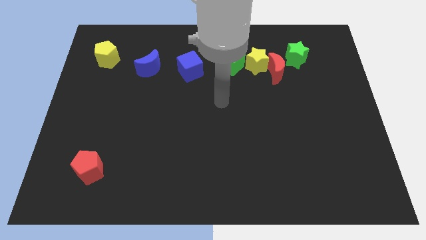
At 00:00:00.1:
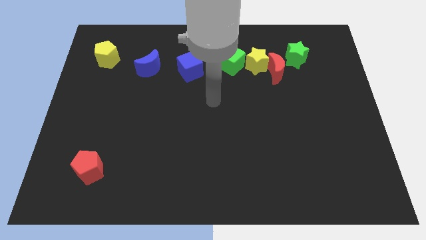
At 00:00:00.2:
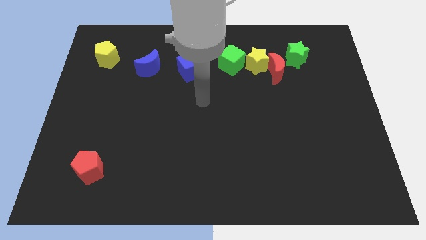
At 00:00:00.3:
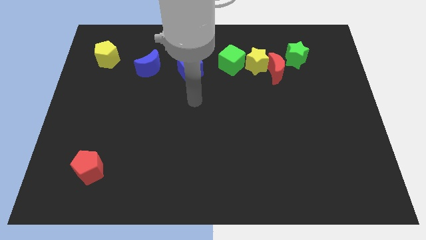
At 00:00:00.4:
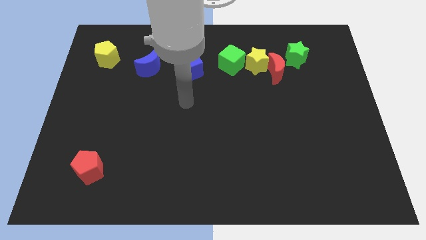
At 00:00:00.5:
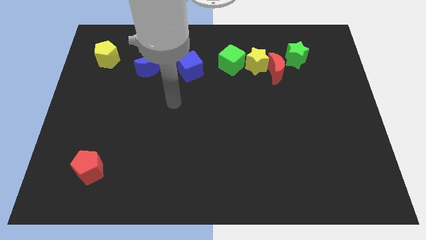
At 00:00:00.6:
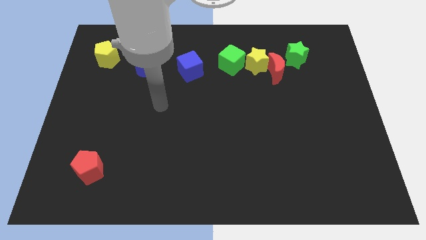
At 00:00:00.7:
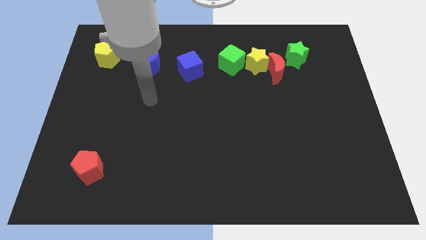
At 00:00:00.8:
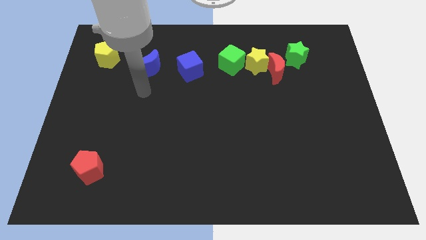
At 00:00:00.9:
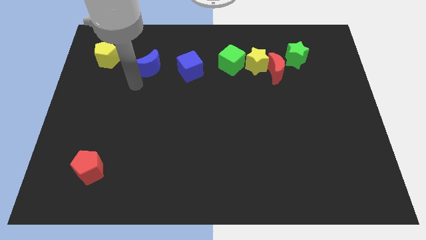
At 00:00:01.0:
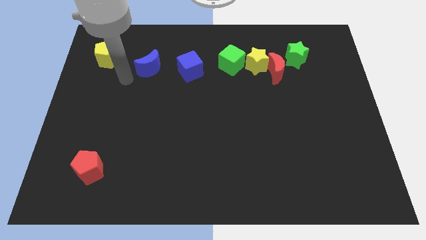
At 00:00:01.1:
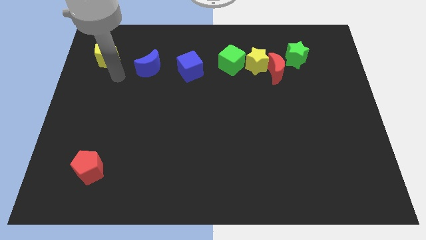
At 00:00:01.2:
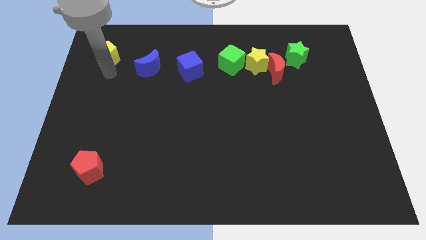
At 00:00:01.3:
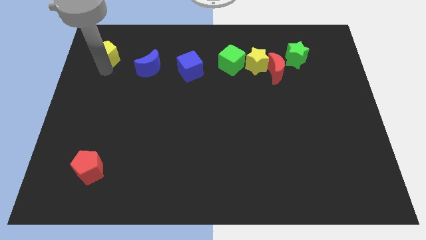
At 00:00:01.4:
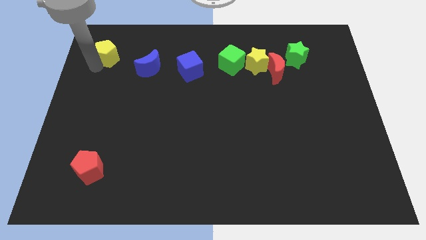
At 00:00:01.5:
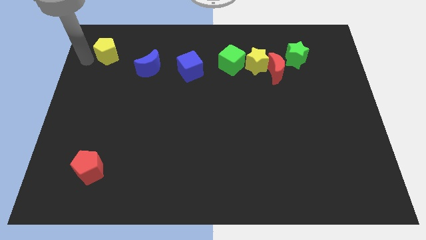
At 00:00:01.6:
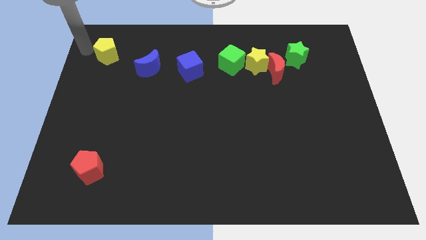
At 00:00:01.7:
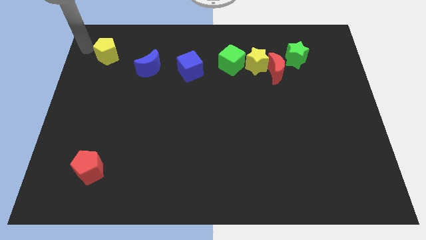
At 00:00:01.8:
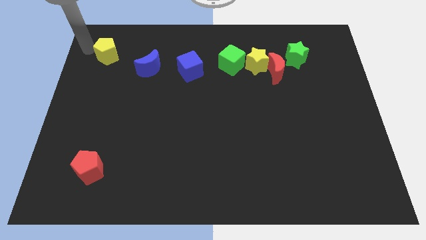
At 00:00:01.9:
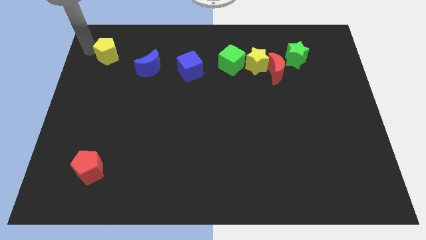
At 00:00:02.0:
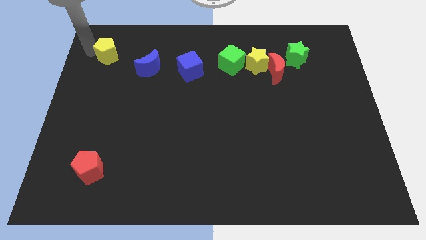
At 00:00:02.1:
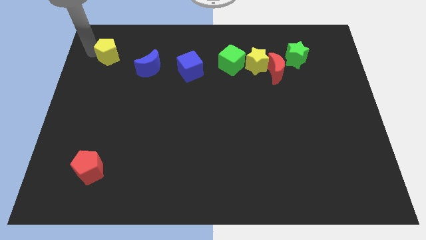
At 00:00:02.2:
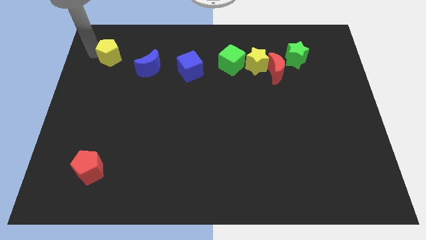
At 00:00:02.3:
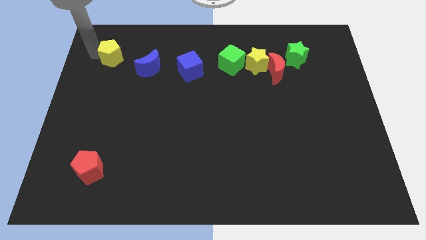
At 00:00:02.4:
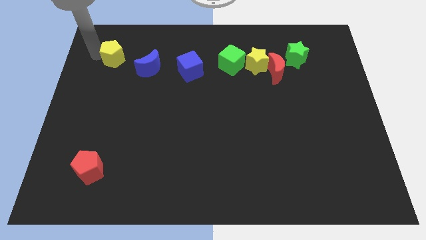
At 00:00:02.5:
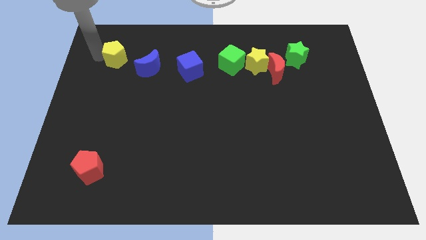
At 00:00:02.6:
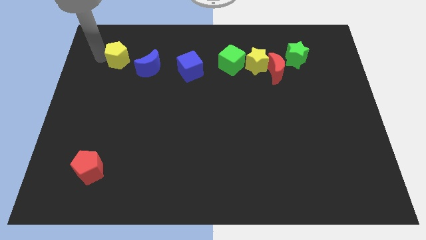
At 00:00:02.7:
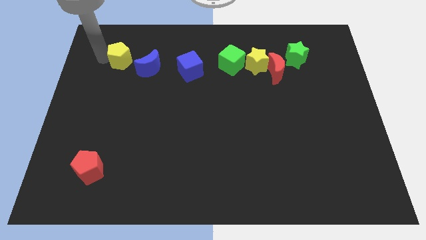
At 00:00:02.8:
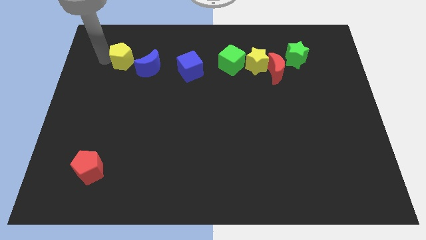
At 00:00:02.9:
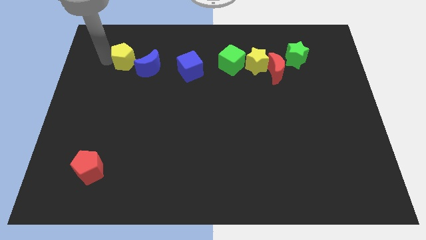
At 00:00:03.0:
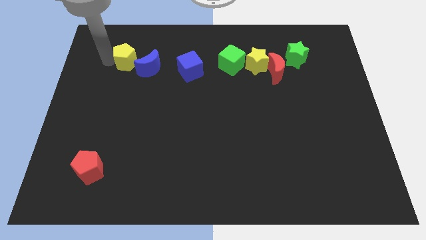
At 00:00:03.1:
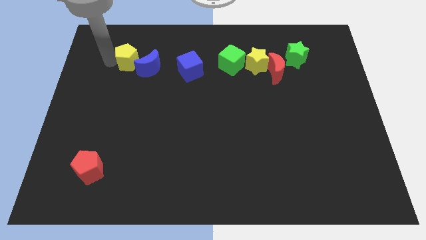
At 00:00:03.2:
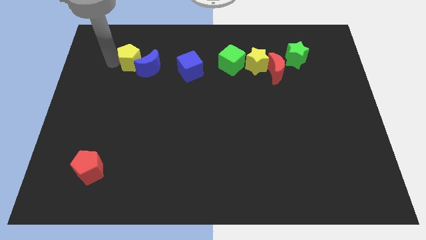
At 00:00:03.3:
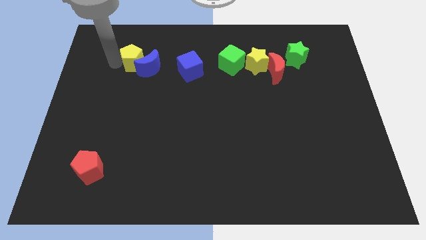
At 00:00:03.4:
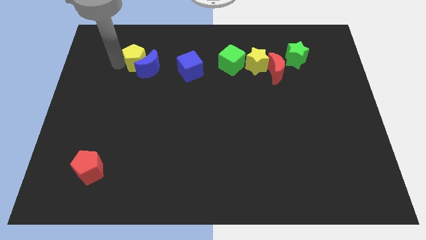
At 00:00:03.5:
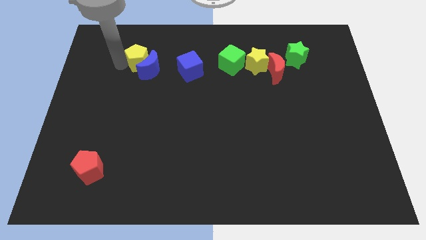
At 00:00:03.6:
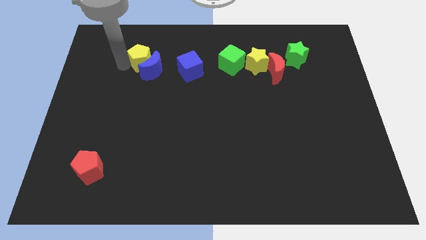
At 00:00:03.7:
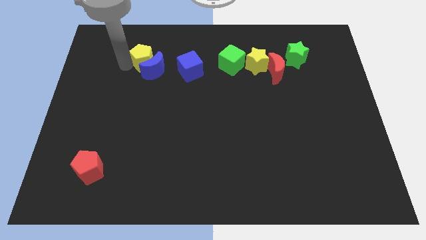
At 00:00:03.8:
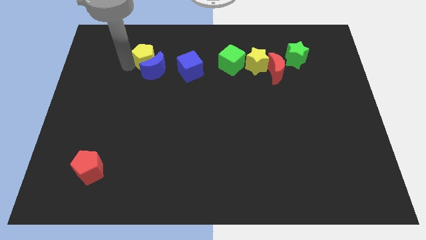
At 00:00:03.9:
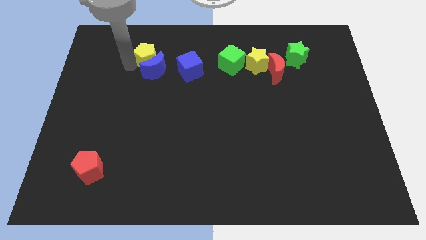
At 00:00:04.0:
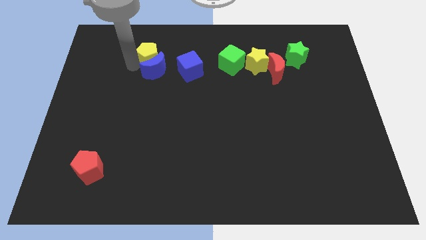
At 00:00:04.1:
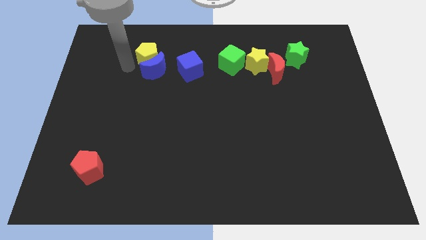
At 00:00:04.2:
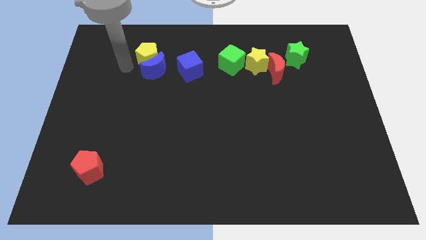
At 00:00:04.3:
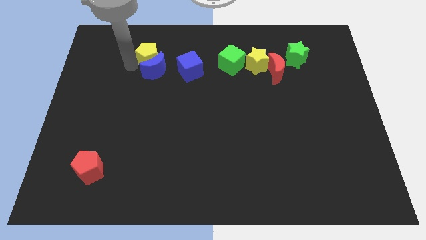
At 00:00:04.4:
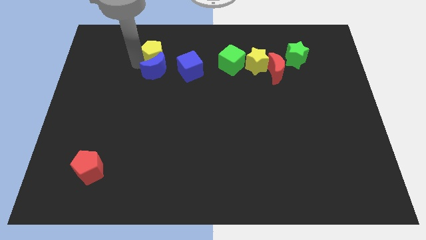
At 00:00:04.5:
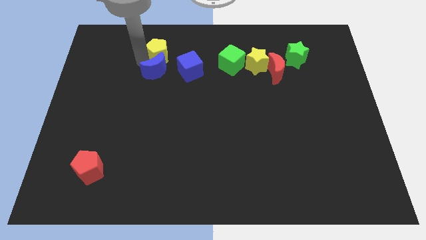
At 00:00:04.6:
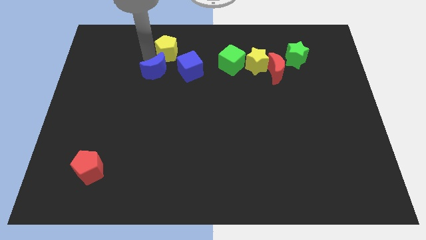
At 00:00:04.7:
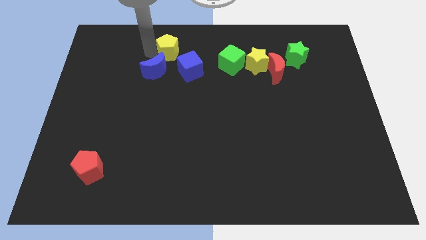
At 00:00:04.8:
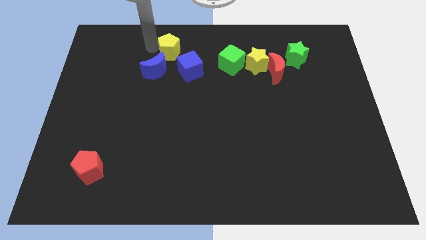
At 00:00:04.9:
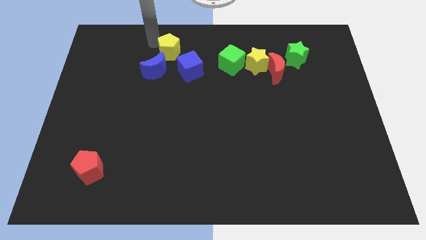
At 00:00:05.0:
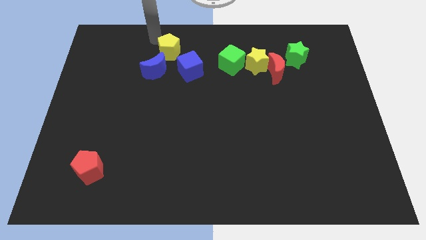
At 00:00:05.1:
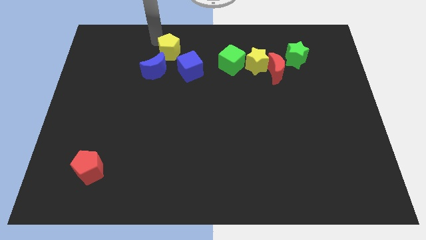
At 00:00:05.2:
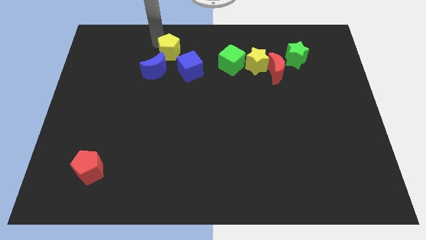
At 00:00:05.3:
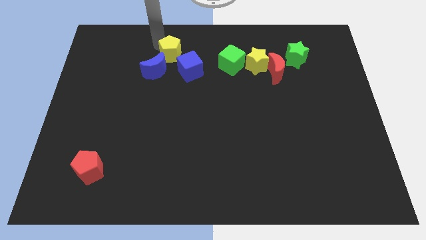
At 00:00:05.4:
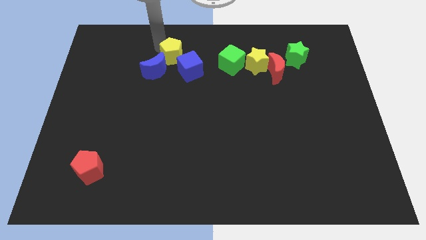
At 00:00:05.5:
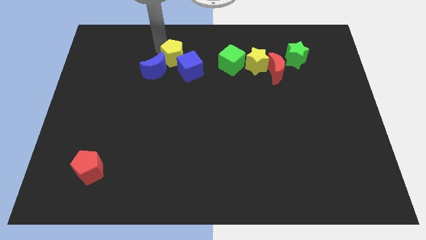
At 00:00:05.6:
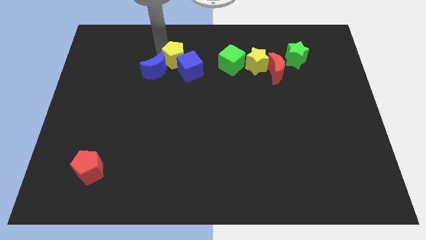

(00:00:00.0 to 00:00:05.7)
put the yellow pentagon towards the blue cube

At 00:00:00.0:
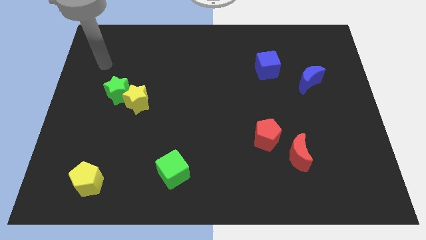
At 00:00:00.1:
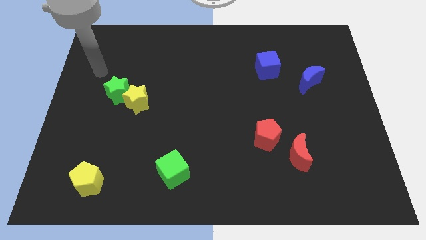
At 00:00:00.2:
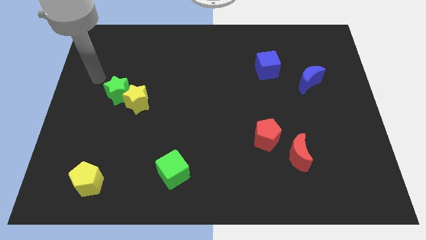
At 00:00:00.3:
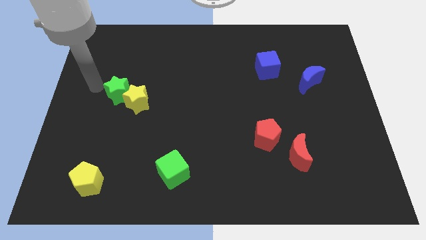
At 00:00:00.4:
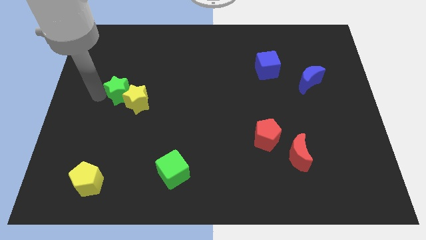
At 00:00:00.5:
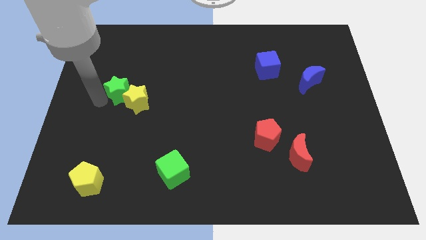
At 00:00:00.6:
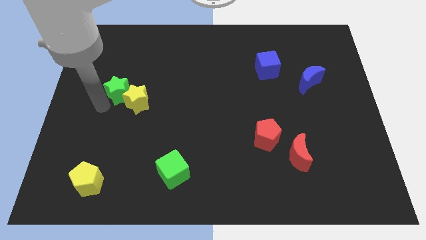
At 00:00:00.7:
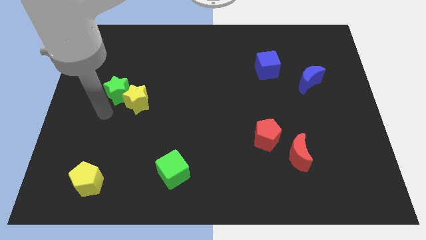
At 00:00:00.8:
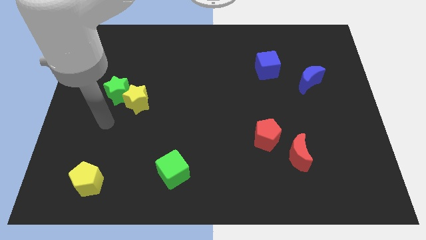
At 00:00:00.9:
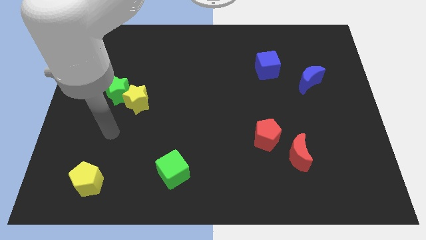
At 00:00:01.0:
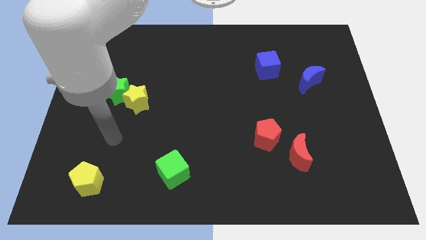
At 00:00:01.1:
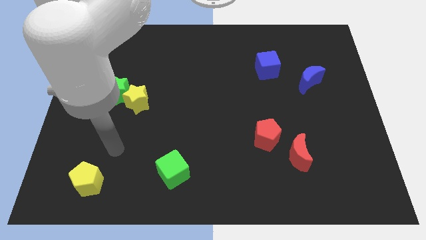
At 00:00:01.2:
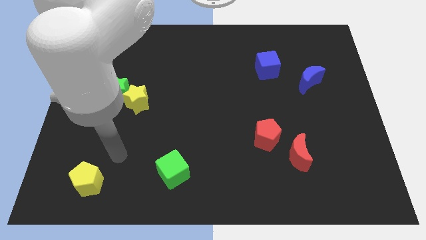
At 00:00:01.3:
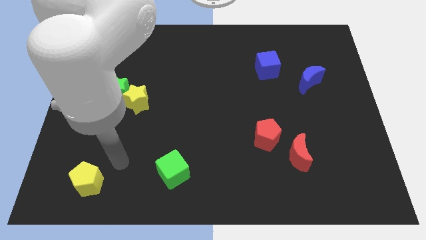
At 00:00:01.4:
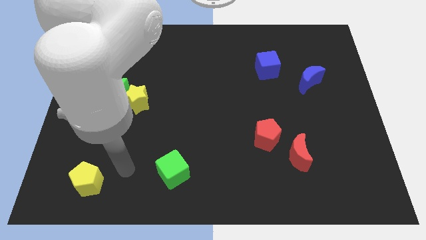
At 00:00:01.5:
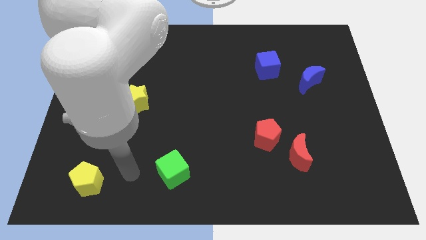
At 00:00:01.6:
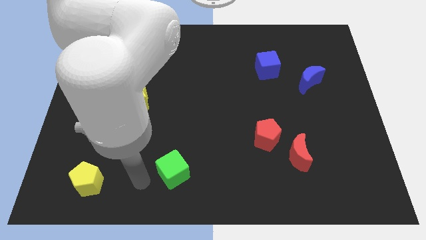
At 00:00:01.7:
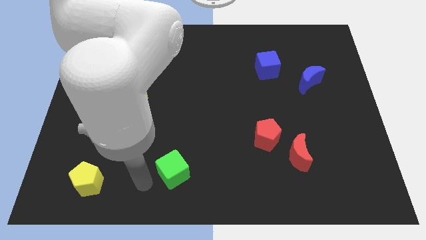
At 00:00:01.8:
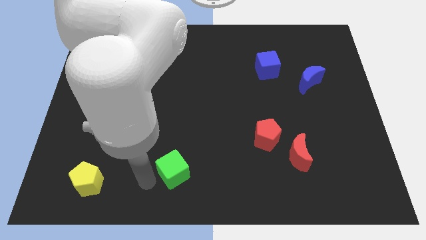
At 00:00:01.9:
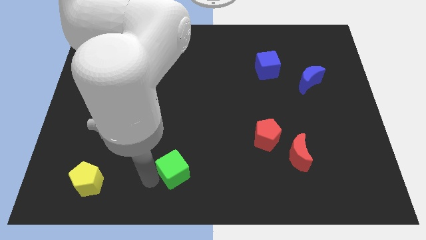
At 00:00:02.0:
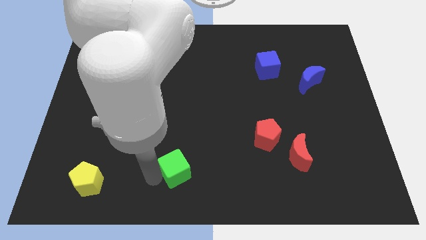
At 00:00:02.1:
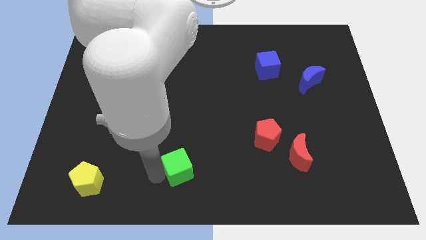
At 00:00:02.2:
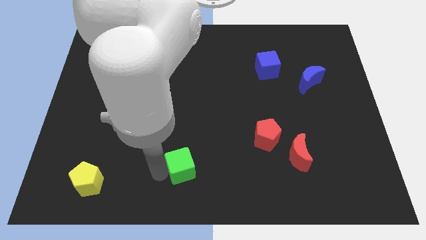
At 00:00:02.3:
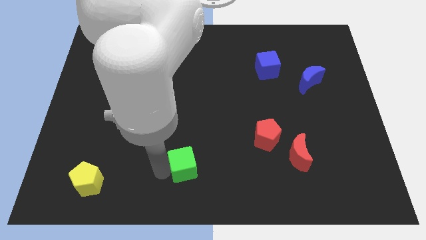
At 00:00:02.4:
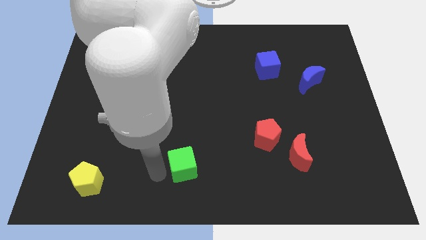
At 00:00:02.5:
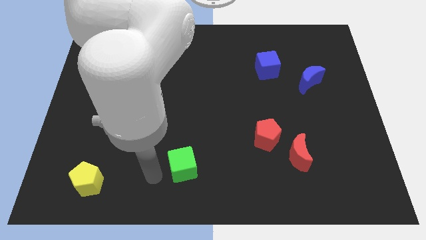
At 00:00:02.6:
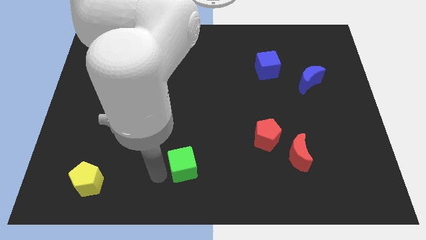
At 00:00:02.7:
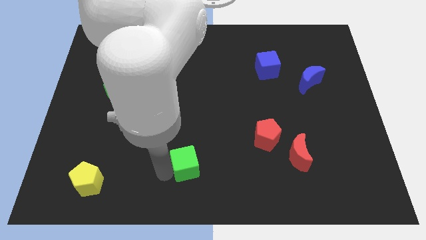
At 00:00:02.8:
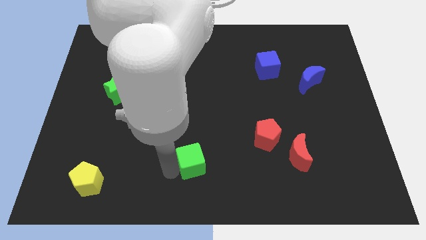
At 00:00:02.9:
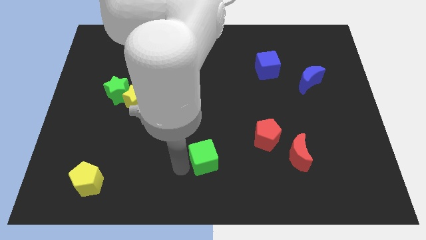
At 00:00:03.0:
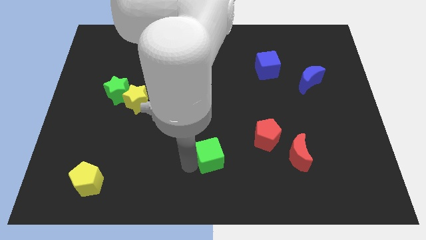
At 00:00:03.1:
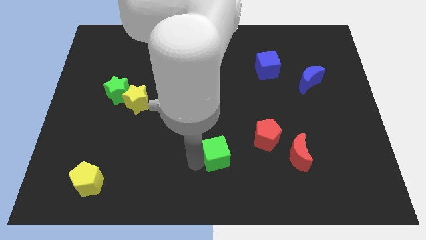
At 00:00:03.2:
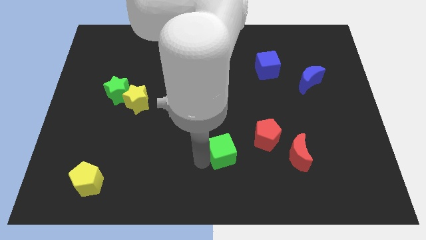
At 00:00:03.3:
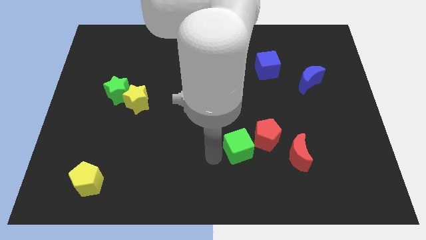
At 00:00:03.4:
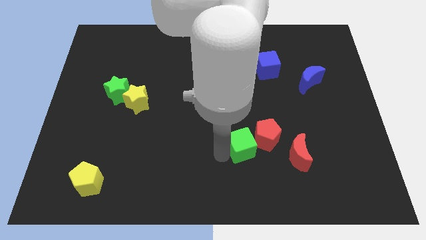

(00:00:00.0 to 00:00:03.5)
push the green cube to the red pentagon
